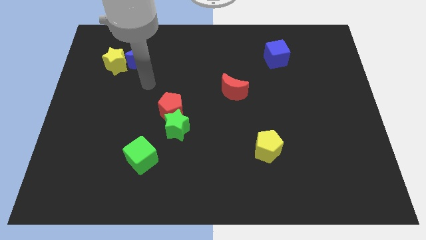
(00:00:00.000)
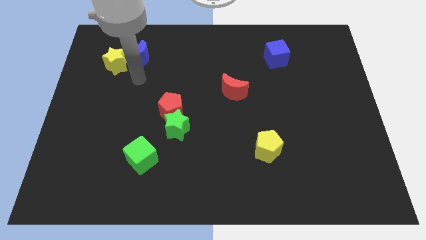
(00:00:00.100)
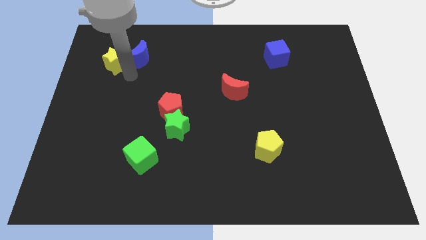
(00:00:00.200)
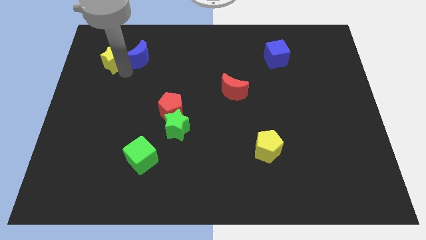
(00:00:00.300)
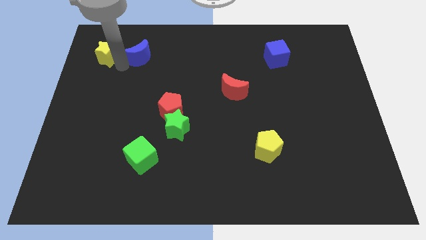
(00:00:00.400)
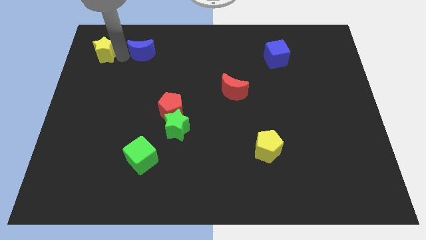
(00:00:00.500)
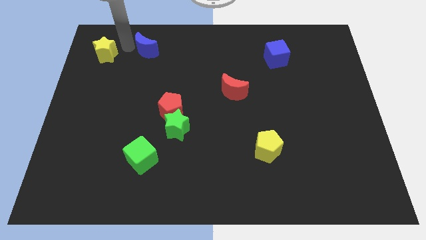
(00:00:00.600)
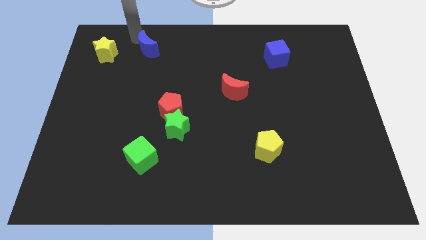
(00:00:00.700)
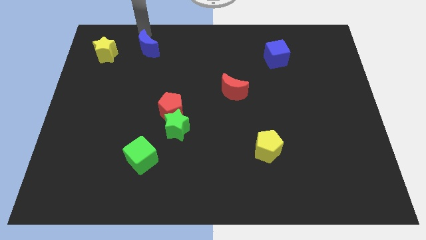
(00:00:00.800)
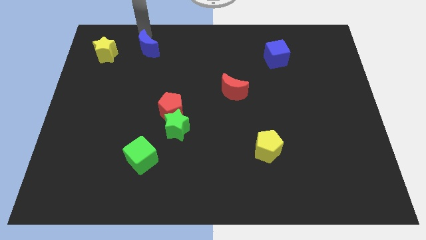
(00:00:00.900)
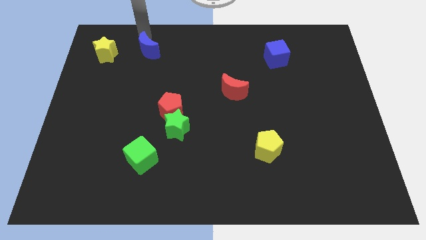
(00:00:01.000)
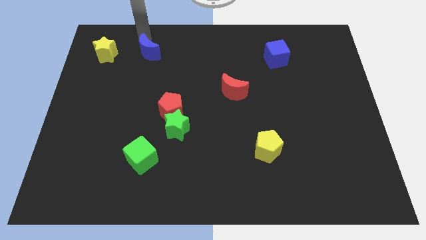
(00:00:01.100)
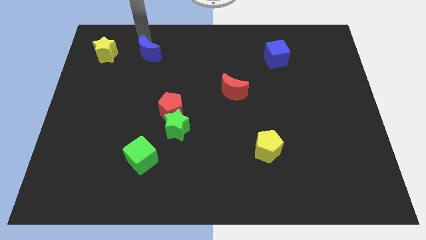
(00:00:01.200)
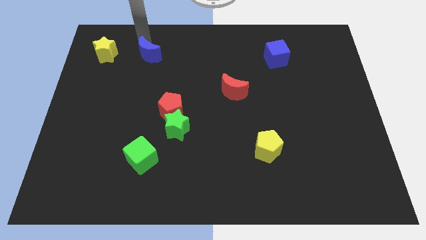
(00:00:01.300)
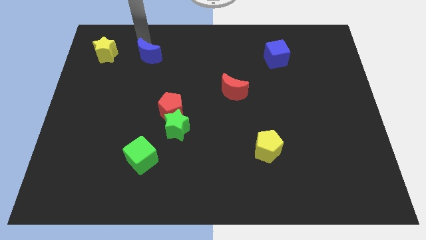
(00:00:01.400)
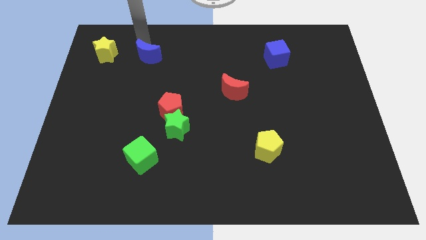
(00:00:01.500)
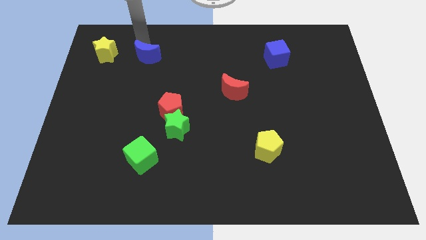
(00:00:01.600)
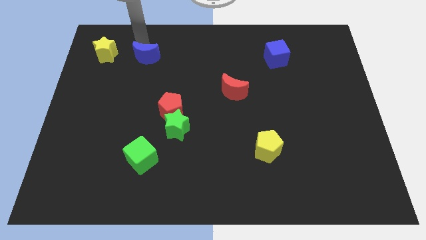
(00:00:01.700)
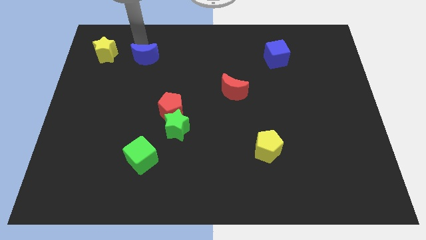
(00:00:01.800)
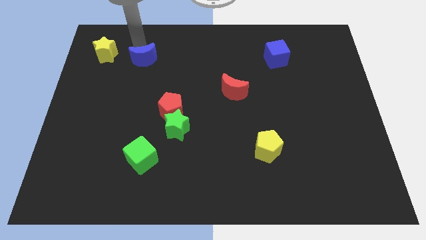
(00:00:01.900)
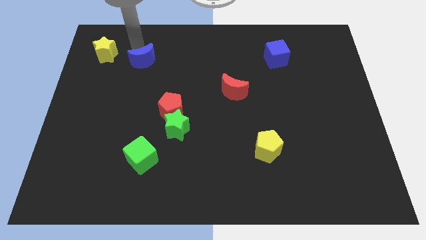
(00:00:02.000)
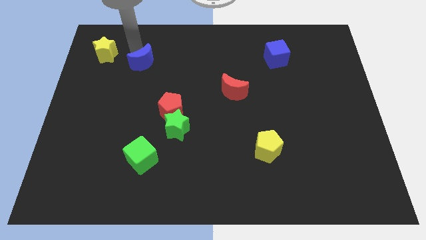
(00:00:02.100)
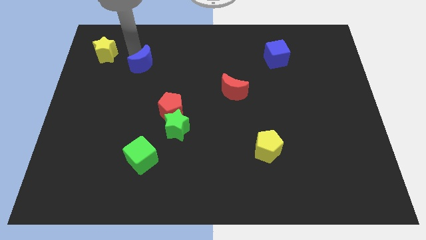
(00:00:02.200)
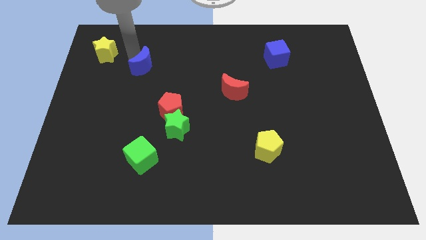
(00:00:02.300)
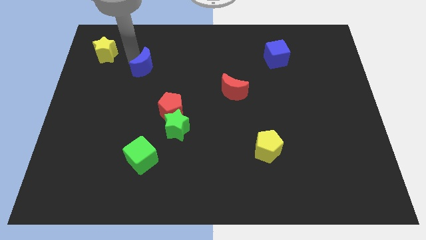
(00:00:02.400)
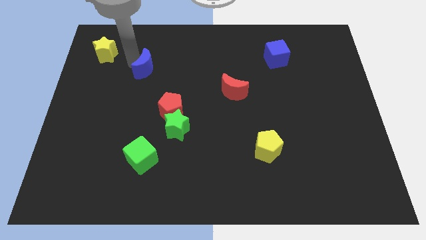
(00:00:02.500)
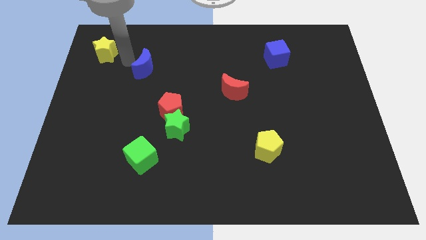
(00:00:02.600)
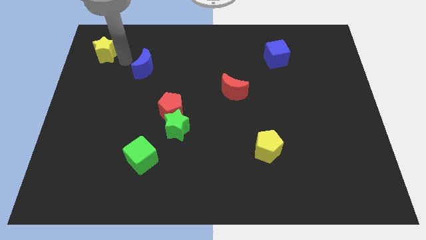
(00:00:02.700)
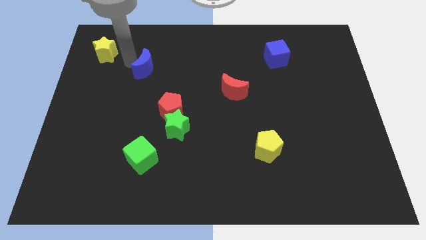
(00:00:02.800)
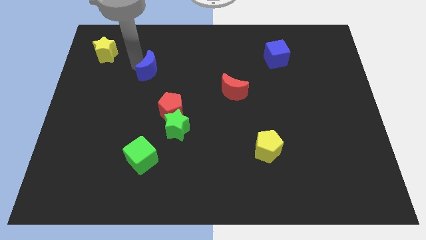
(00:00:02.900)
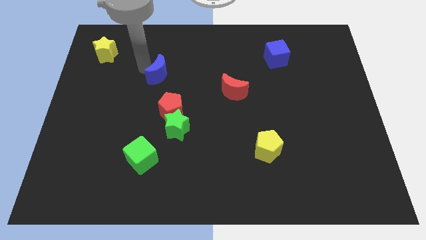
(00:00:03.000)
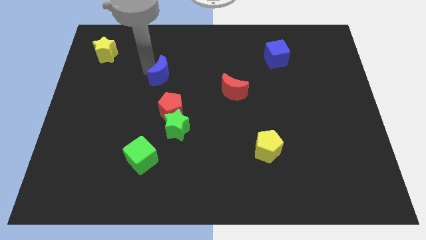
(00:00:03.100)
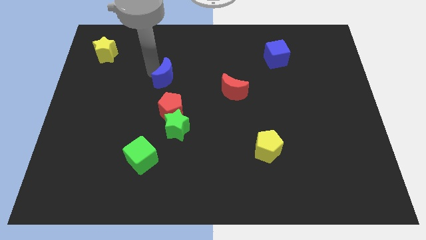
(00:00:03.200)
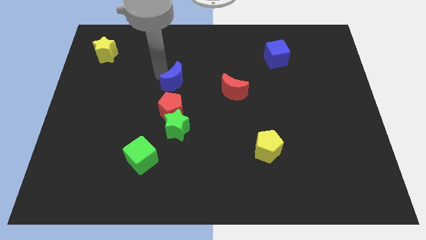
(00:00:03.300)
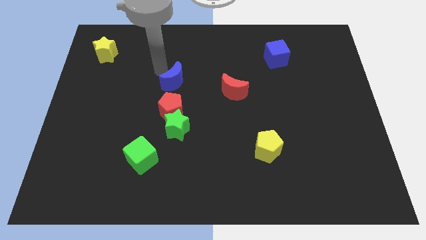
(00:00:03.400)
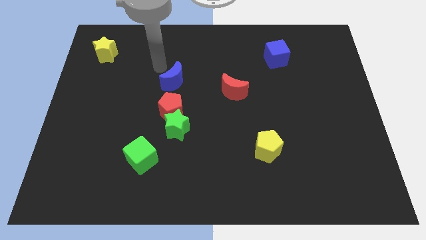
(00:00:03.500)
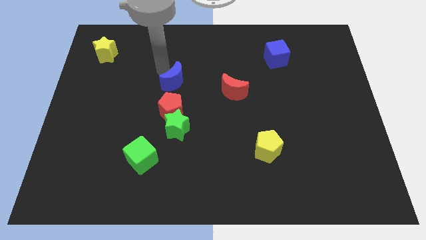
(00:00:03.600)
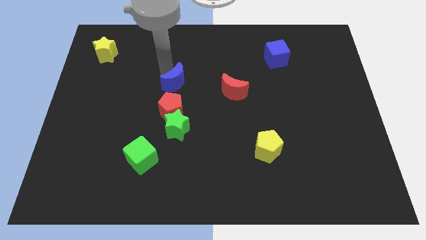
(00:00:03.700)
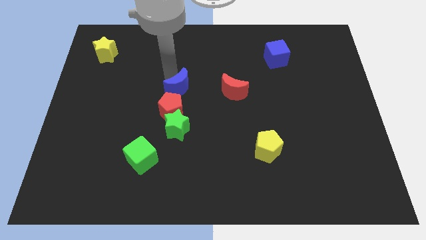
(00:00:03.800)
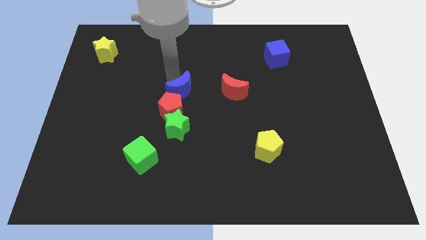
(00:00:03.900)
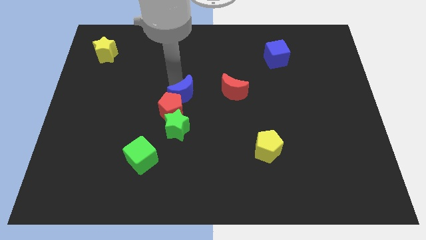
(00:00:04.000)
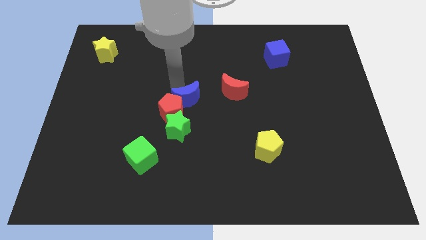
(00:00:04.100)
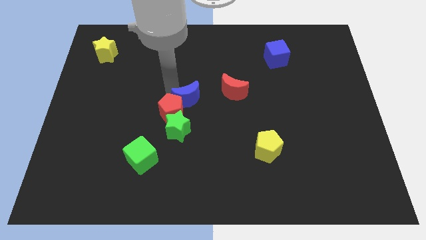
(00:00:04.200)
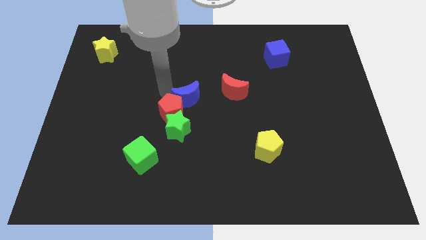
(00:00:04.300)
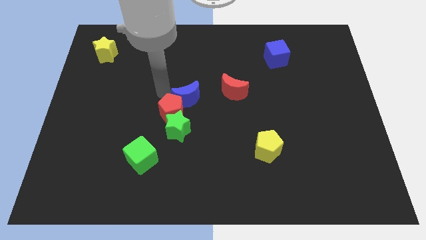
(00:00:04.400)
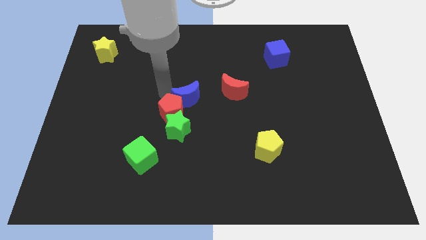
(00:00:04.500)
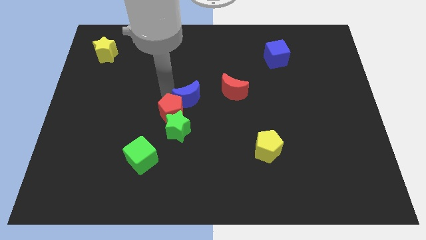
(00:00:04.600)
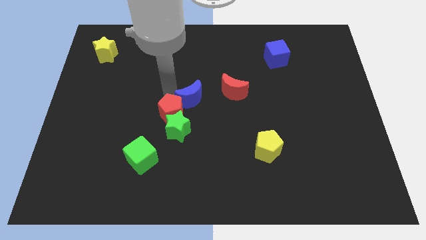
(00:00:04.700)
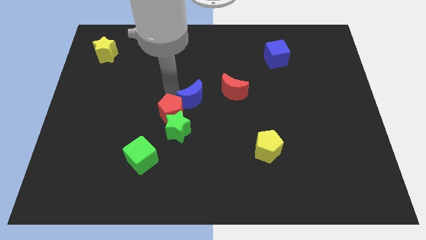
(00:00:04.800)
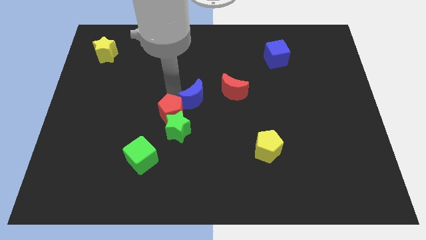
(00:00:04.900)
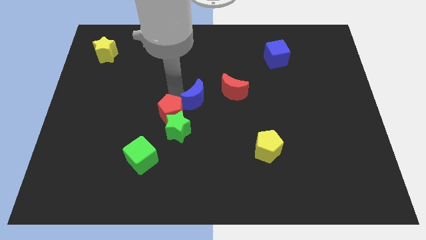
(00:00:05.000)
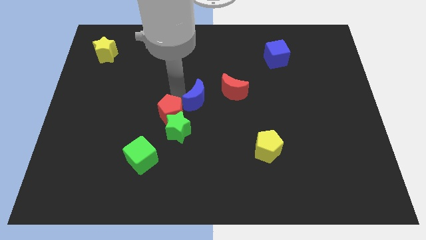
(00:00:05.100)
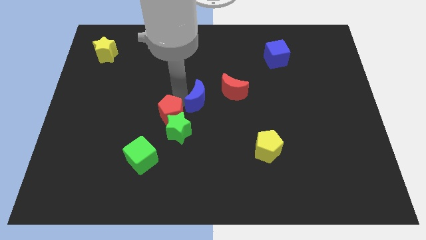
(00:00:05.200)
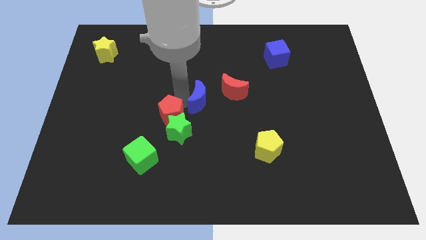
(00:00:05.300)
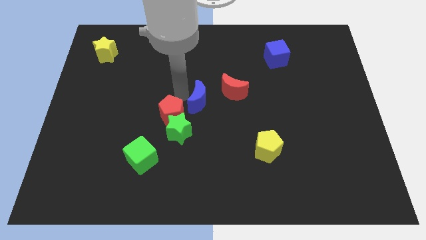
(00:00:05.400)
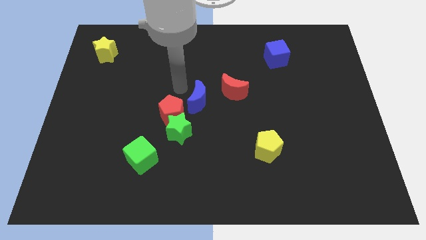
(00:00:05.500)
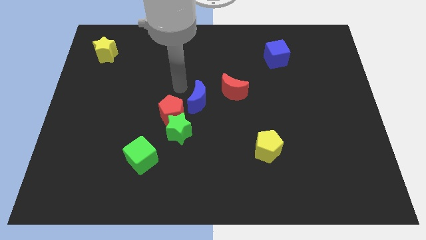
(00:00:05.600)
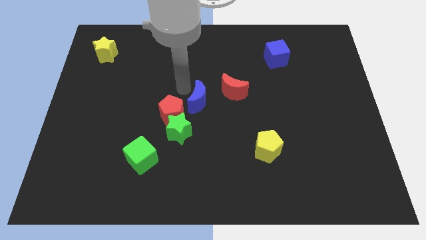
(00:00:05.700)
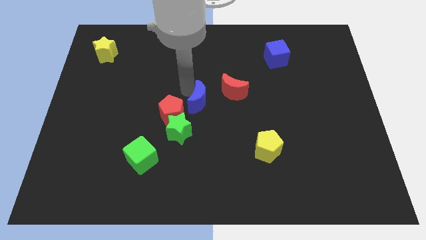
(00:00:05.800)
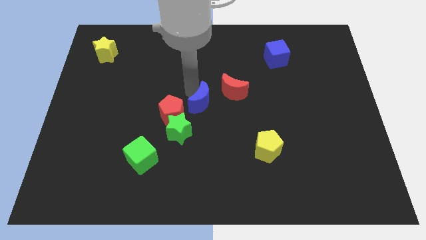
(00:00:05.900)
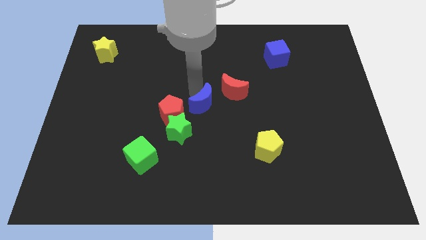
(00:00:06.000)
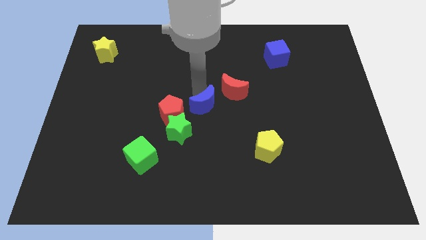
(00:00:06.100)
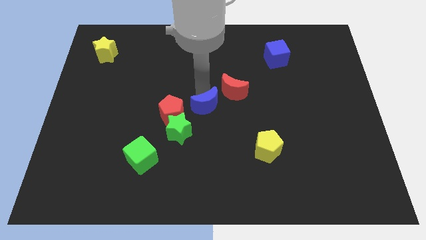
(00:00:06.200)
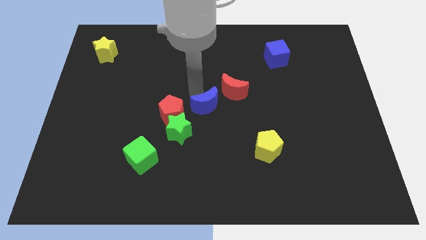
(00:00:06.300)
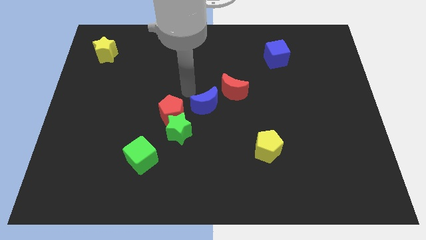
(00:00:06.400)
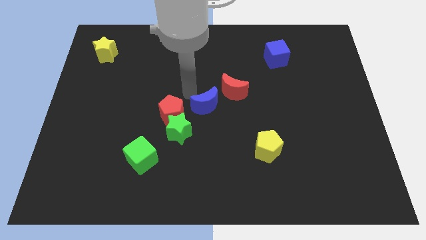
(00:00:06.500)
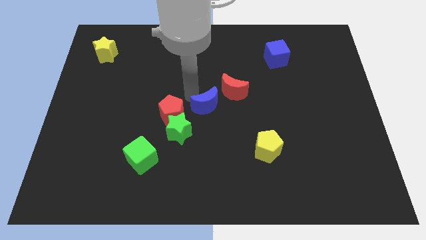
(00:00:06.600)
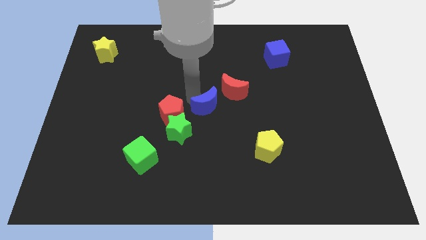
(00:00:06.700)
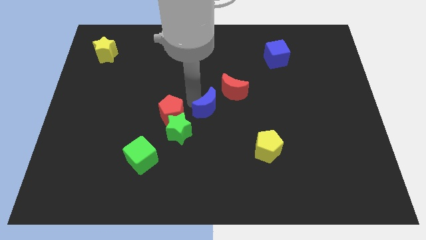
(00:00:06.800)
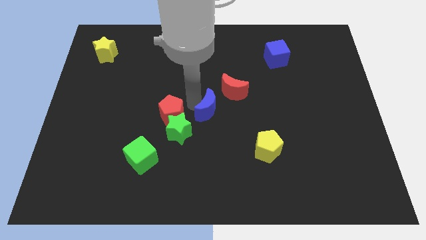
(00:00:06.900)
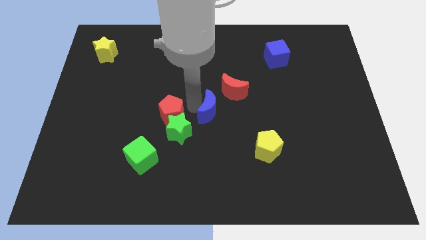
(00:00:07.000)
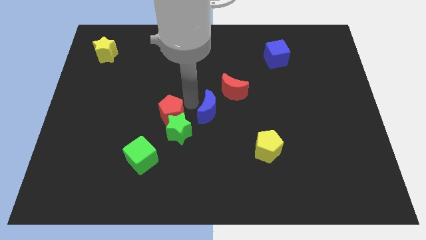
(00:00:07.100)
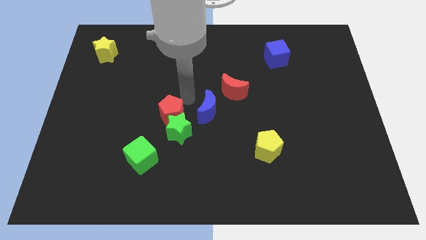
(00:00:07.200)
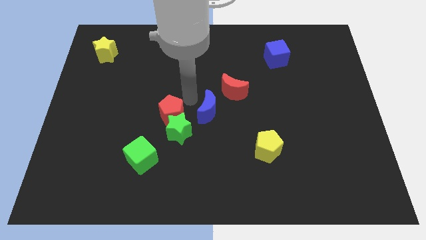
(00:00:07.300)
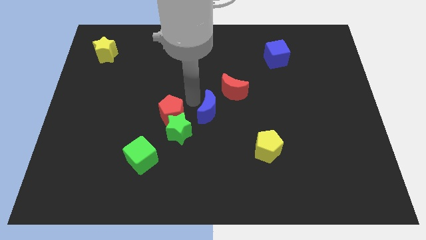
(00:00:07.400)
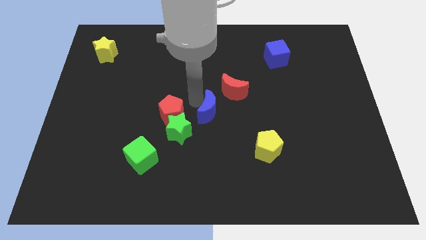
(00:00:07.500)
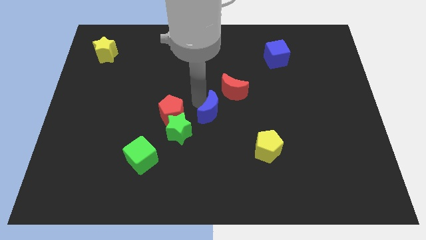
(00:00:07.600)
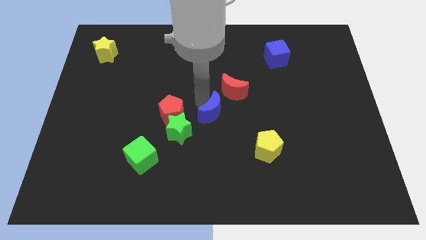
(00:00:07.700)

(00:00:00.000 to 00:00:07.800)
put the blue moon to the bottom side of the red moon
